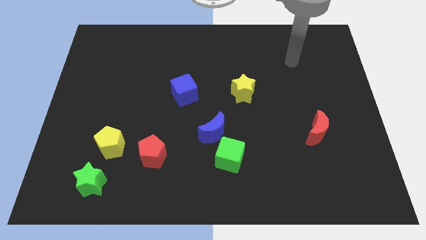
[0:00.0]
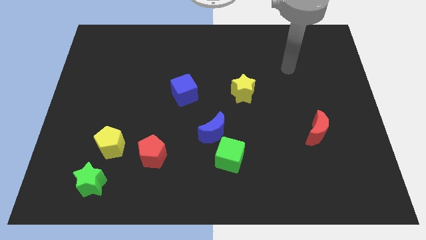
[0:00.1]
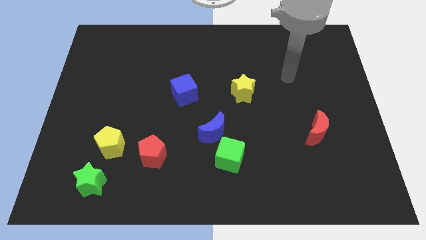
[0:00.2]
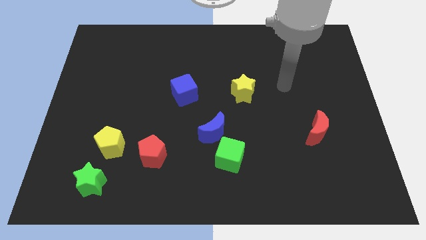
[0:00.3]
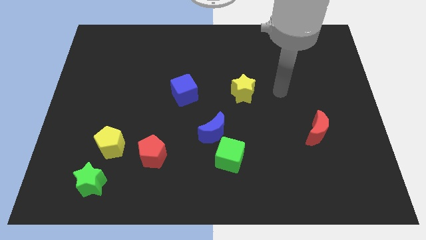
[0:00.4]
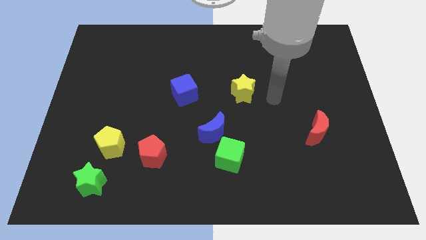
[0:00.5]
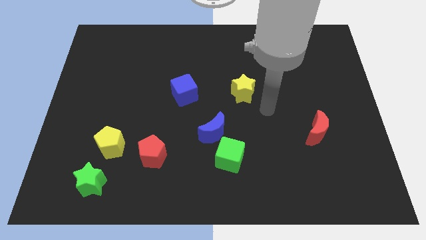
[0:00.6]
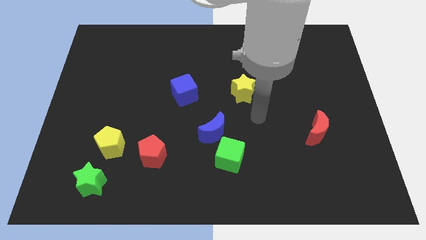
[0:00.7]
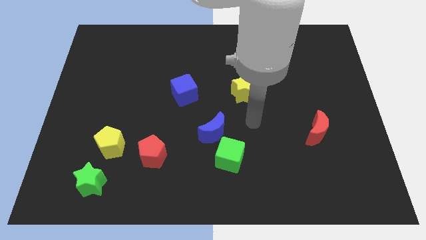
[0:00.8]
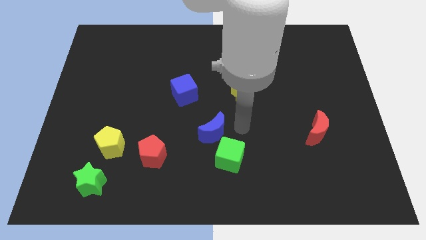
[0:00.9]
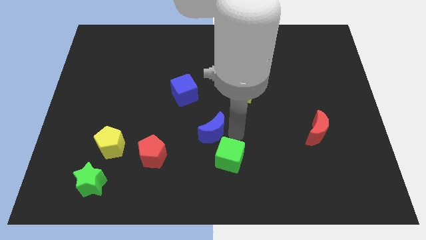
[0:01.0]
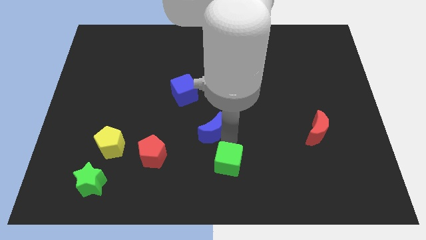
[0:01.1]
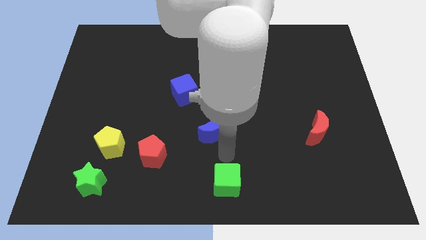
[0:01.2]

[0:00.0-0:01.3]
pull the blue moon apart from the green cube

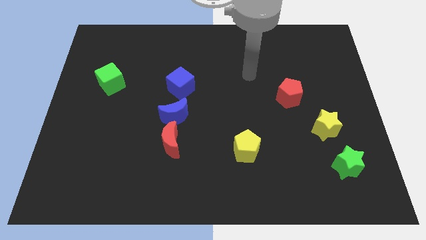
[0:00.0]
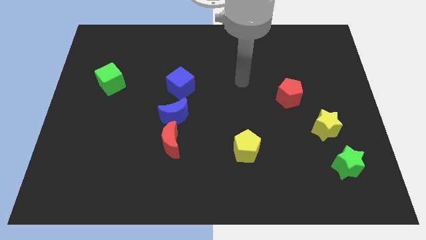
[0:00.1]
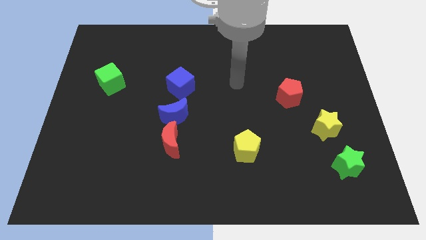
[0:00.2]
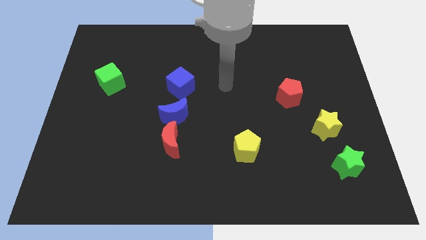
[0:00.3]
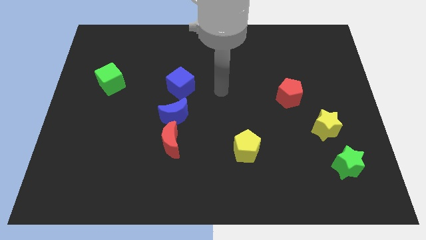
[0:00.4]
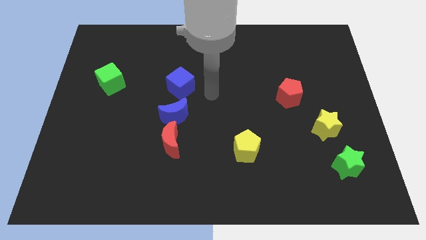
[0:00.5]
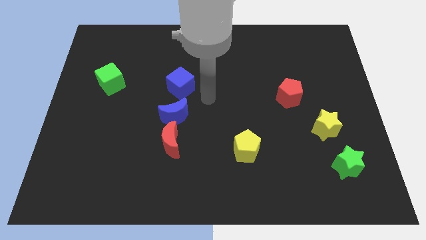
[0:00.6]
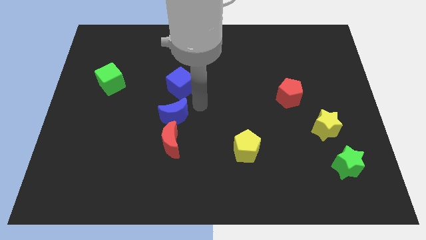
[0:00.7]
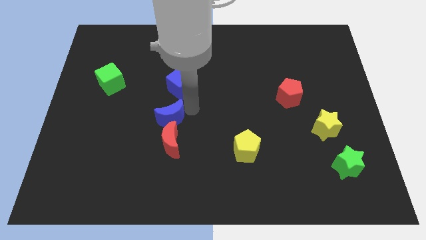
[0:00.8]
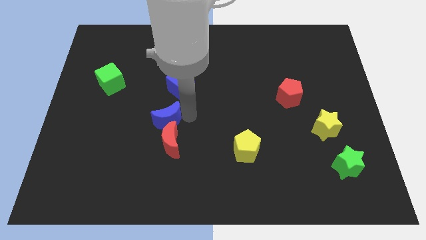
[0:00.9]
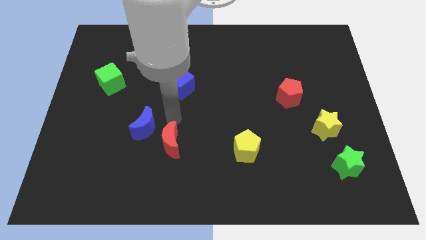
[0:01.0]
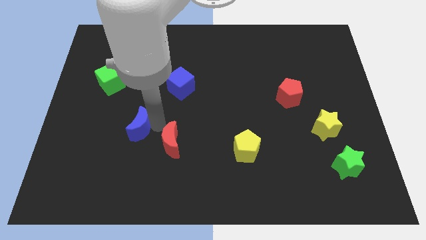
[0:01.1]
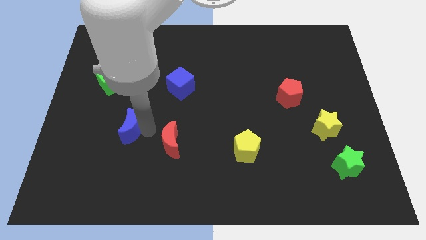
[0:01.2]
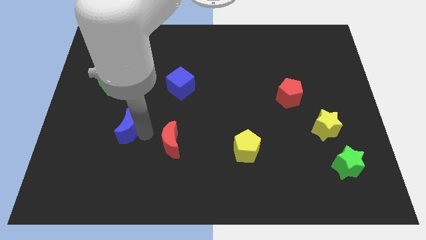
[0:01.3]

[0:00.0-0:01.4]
pull the red moon apart from the blue moon

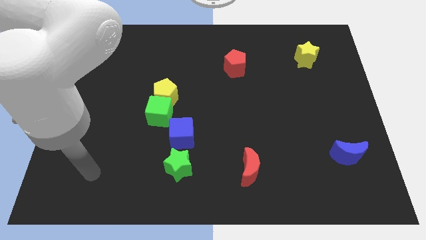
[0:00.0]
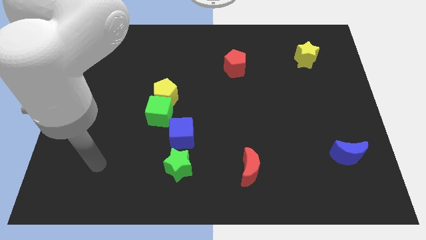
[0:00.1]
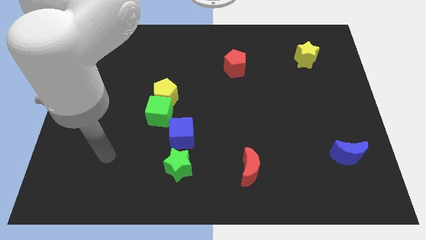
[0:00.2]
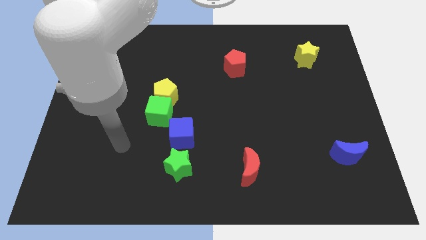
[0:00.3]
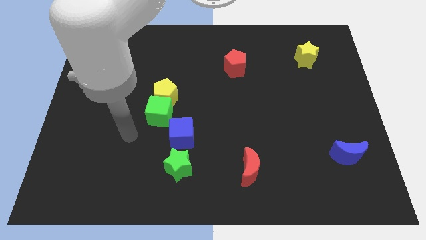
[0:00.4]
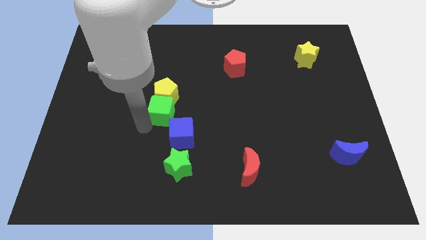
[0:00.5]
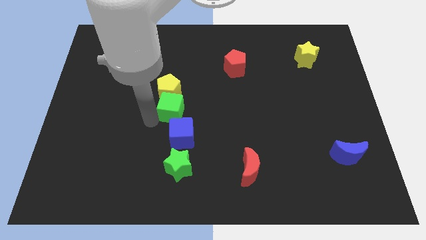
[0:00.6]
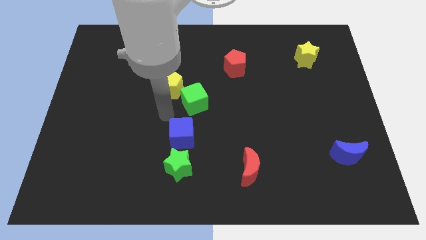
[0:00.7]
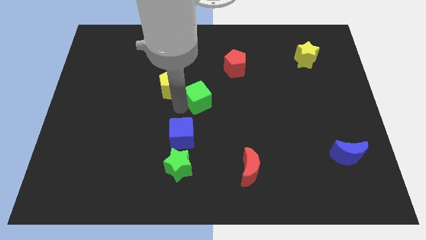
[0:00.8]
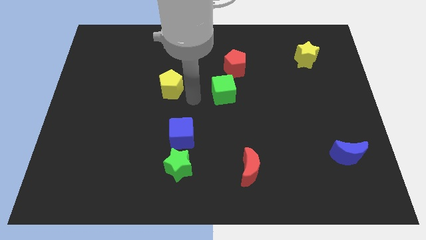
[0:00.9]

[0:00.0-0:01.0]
pull the yellow pentagon apart from the green cube

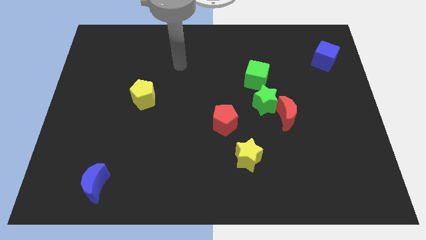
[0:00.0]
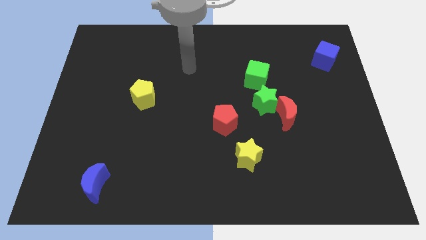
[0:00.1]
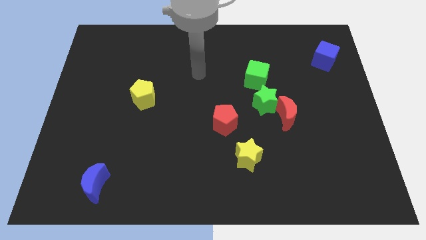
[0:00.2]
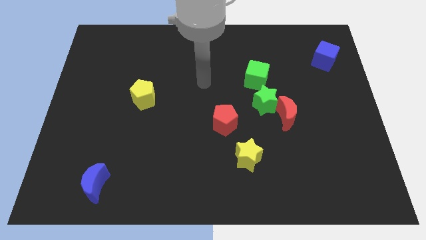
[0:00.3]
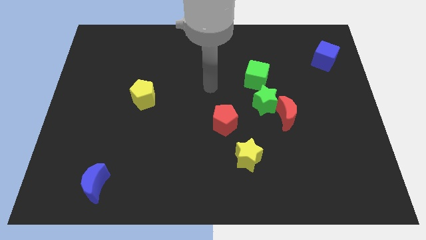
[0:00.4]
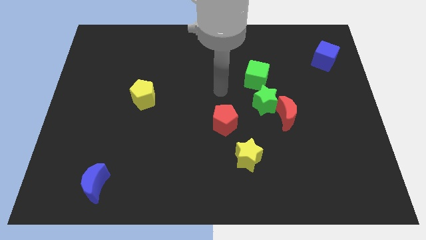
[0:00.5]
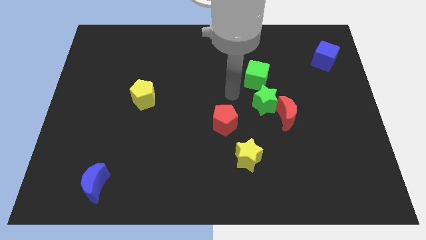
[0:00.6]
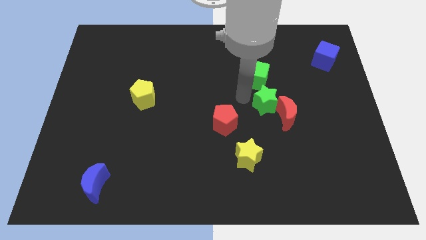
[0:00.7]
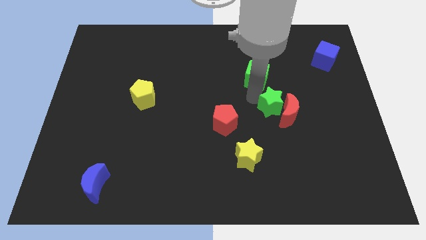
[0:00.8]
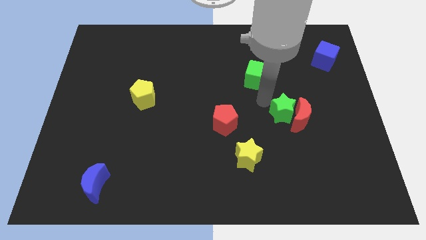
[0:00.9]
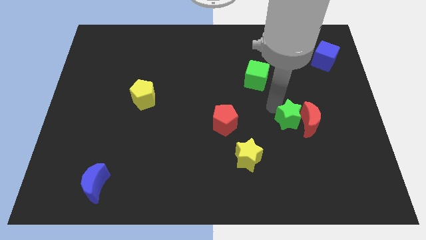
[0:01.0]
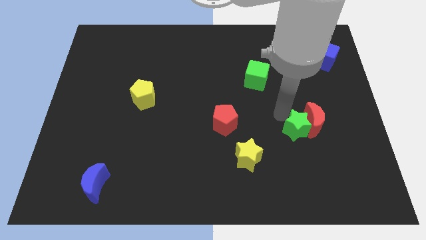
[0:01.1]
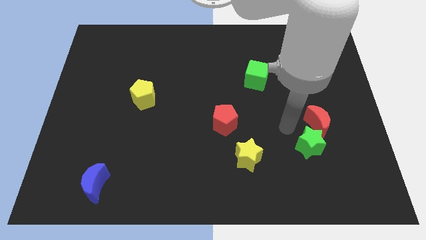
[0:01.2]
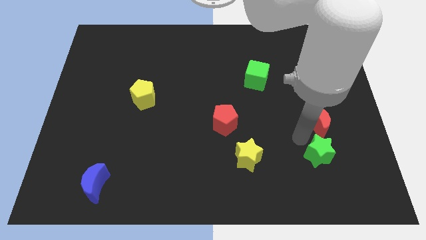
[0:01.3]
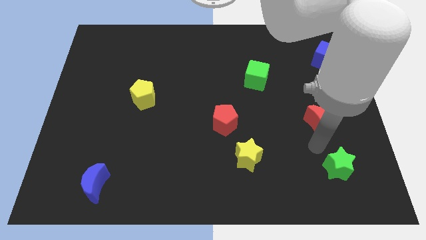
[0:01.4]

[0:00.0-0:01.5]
pull the red moon apart from the green star

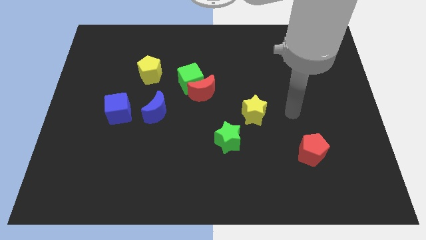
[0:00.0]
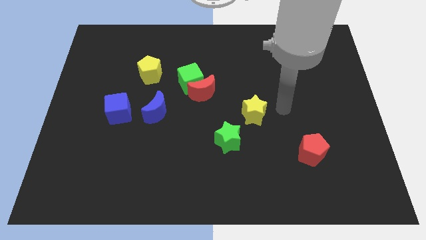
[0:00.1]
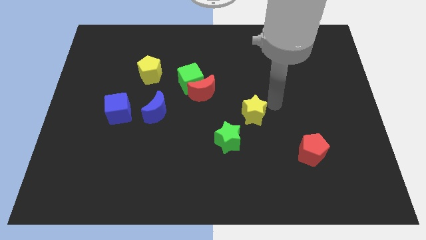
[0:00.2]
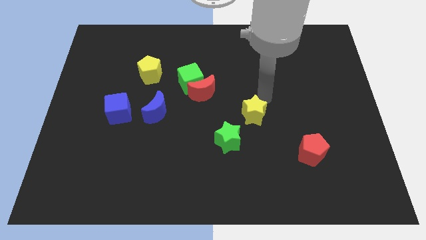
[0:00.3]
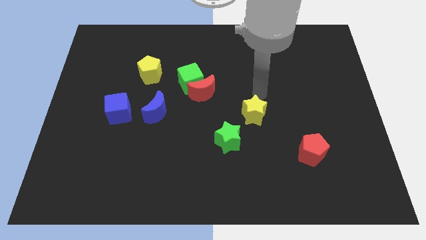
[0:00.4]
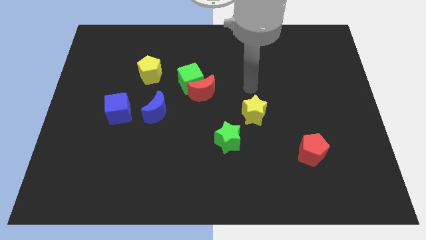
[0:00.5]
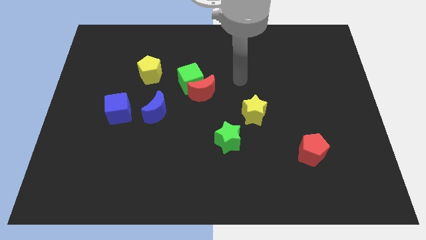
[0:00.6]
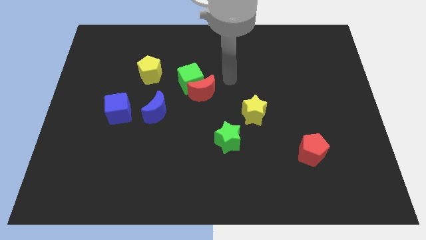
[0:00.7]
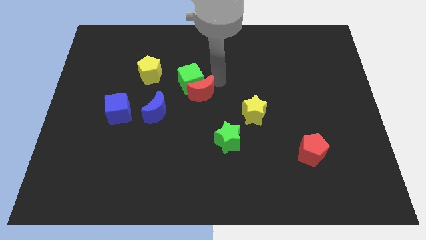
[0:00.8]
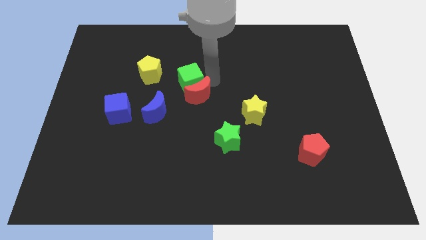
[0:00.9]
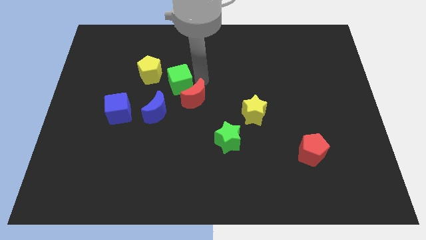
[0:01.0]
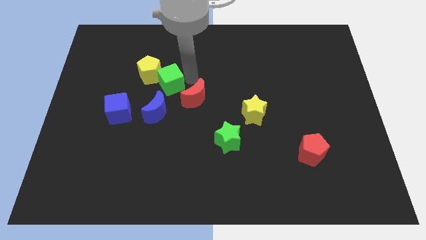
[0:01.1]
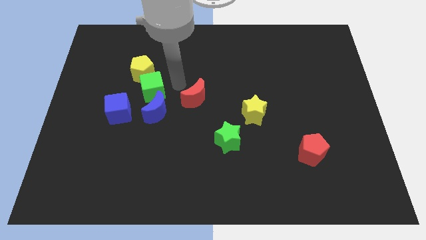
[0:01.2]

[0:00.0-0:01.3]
move the red moon away from the green cube

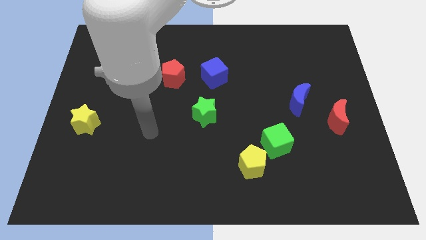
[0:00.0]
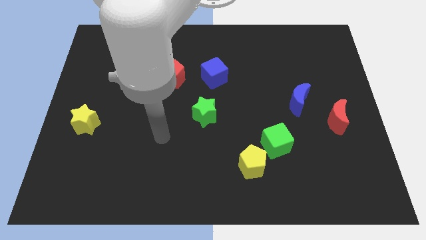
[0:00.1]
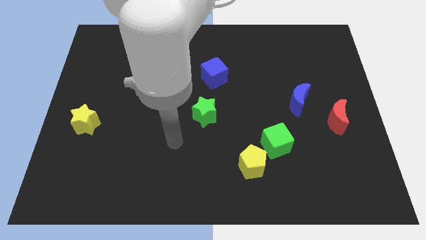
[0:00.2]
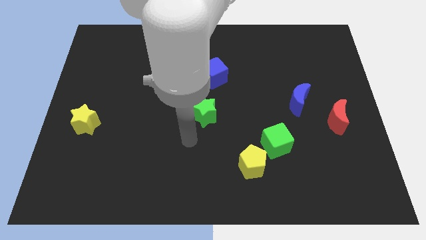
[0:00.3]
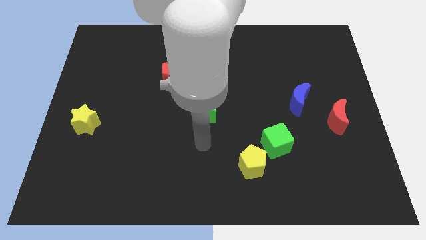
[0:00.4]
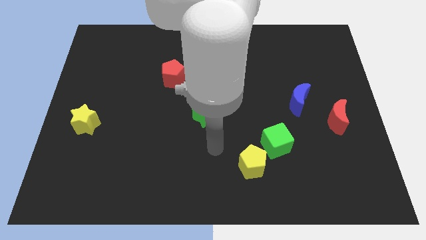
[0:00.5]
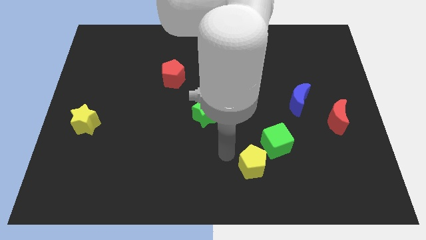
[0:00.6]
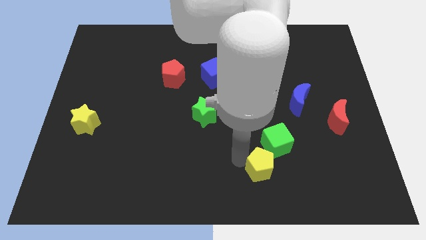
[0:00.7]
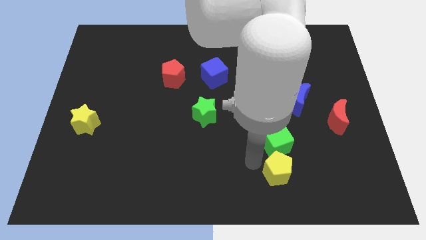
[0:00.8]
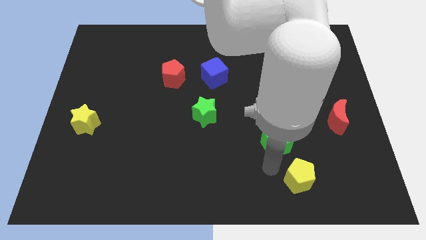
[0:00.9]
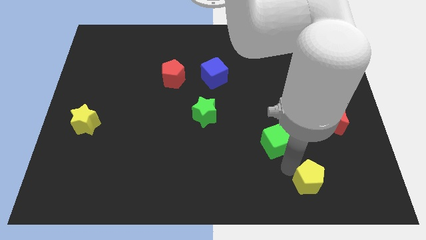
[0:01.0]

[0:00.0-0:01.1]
move the green cube away from the yellow pentagon

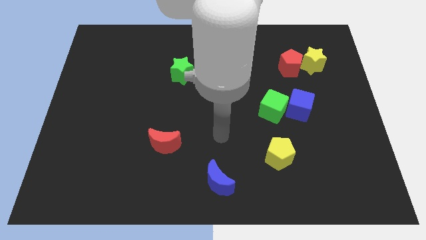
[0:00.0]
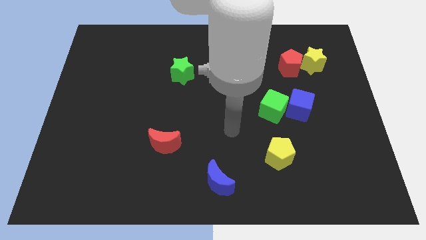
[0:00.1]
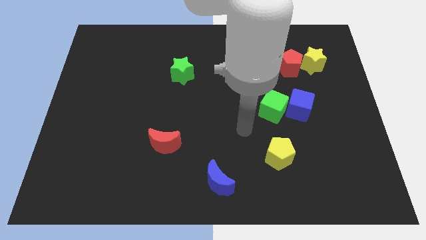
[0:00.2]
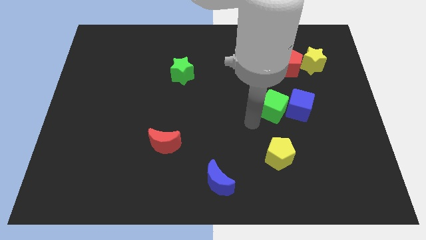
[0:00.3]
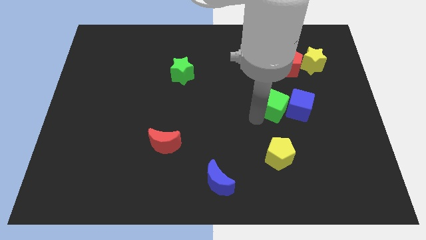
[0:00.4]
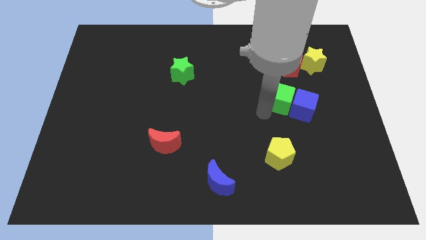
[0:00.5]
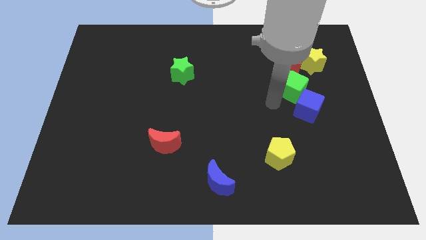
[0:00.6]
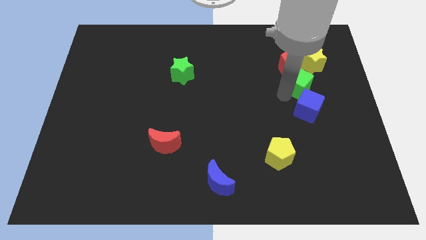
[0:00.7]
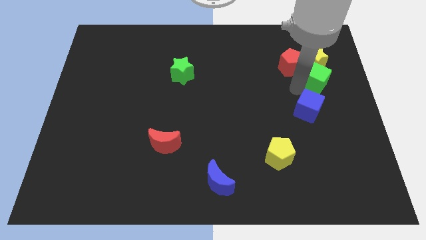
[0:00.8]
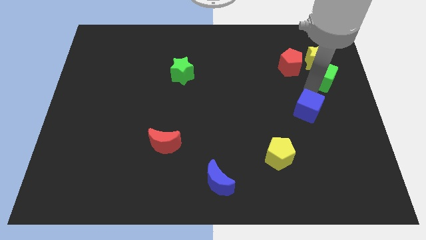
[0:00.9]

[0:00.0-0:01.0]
move the blue cube away from the green cube

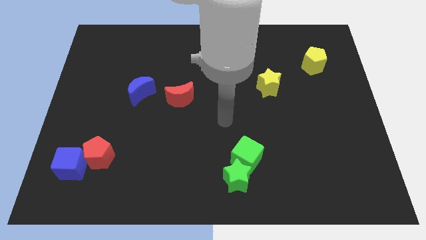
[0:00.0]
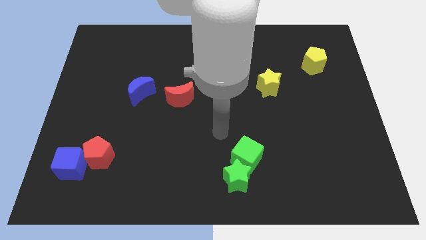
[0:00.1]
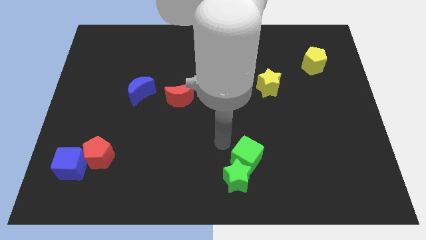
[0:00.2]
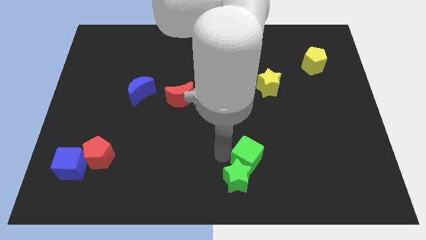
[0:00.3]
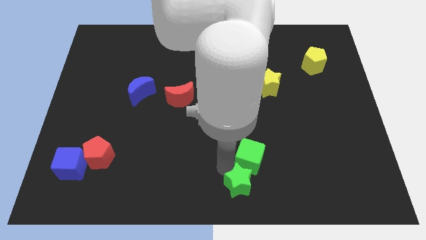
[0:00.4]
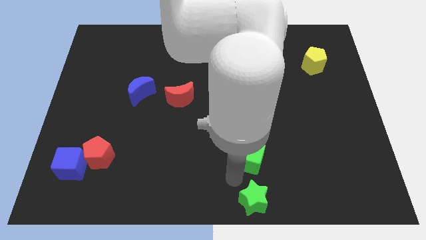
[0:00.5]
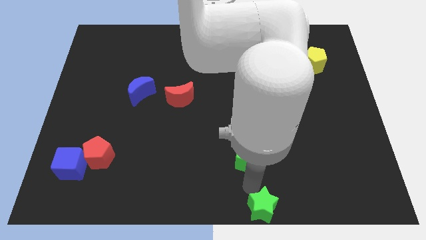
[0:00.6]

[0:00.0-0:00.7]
separate the green cube from the green star
